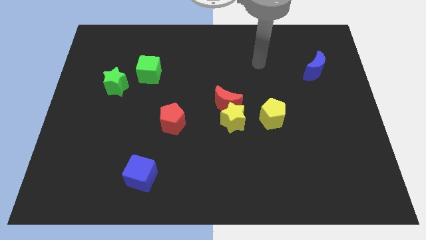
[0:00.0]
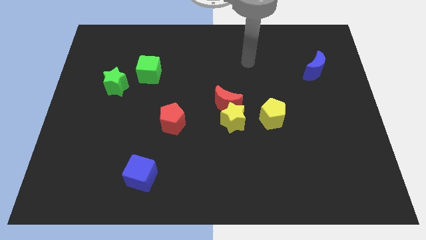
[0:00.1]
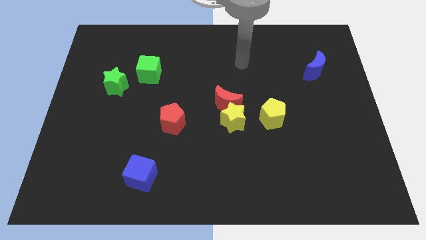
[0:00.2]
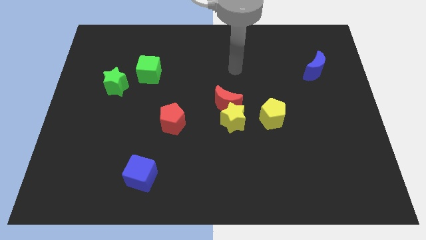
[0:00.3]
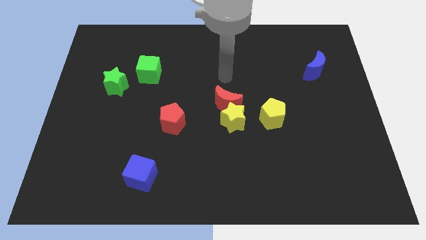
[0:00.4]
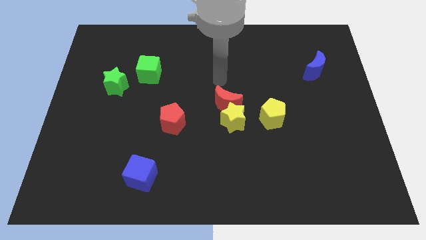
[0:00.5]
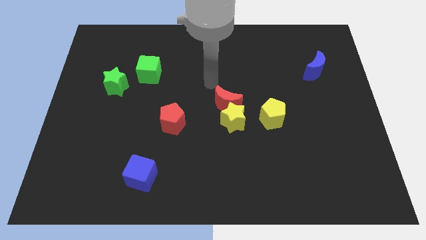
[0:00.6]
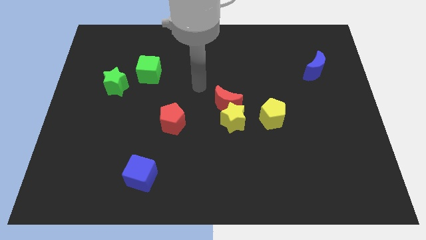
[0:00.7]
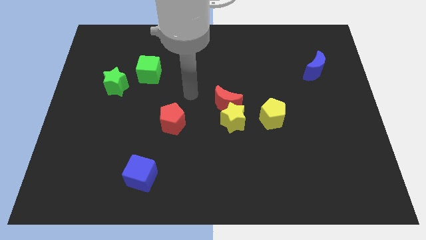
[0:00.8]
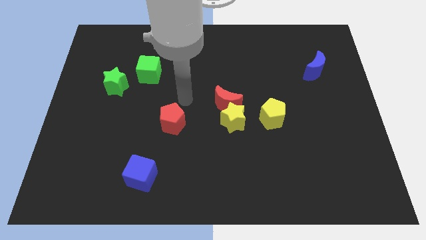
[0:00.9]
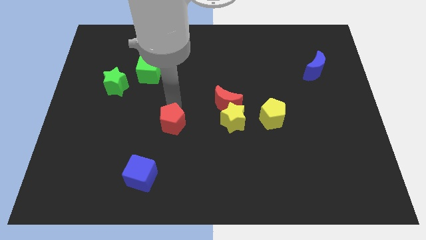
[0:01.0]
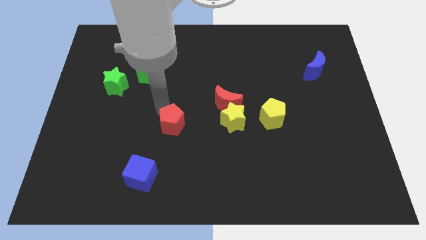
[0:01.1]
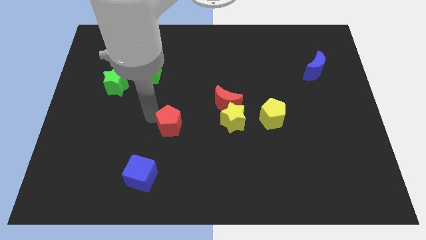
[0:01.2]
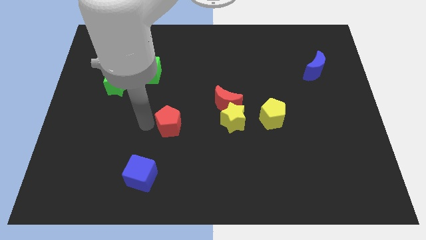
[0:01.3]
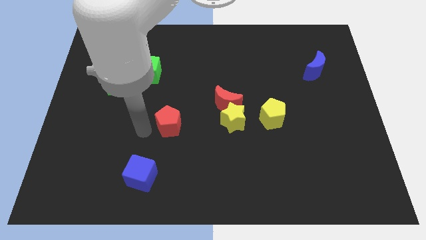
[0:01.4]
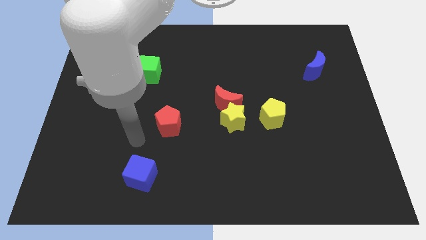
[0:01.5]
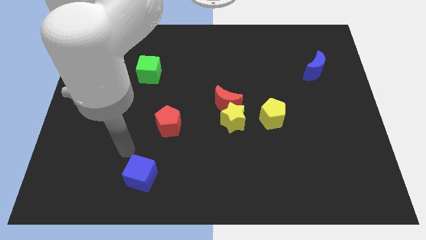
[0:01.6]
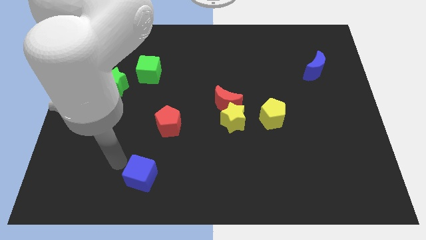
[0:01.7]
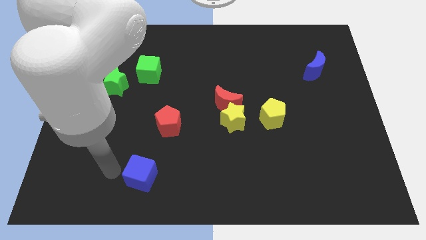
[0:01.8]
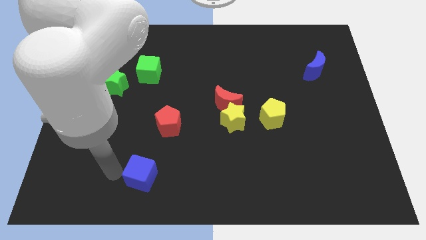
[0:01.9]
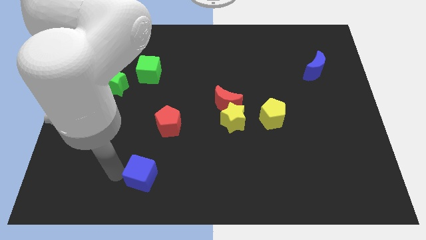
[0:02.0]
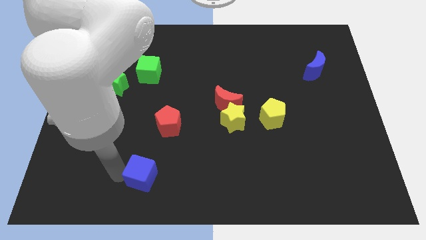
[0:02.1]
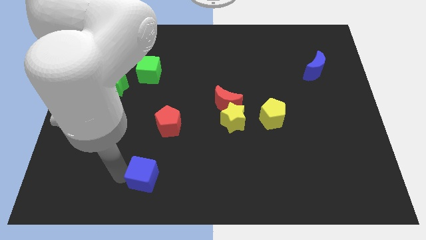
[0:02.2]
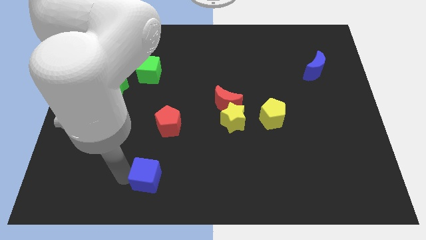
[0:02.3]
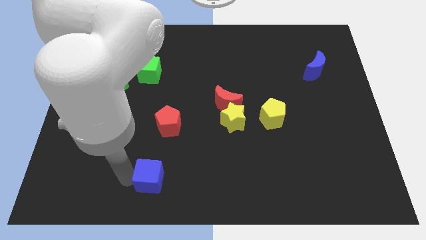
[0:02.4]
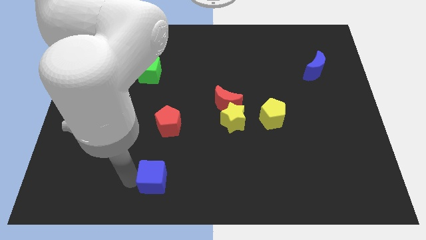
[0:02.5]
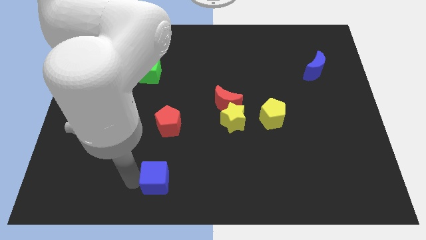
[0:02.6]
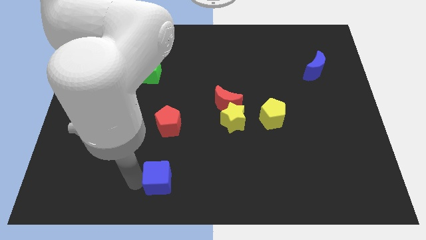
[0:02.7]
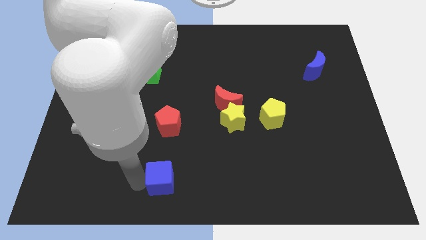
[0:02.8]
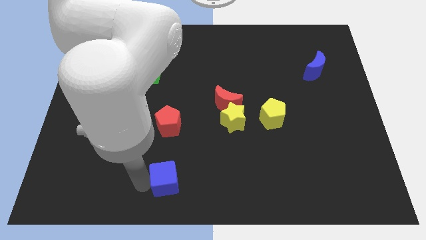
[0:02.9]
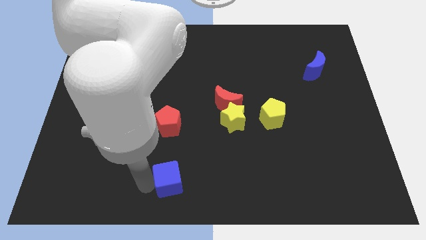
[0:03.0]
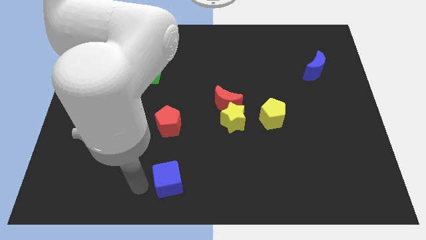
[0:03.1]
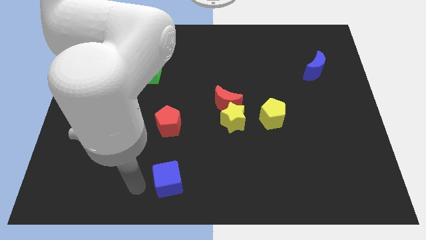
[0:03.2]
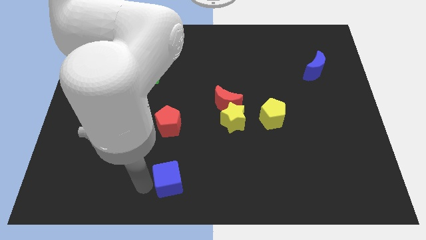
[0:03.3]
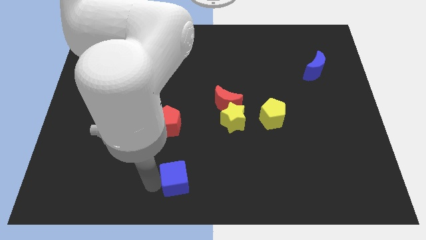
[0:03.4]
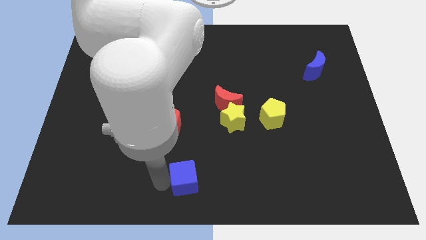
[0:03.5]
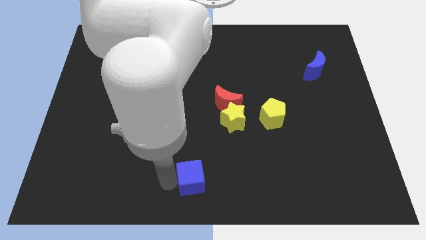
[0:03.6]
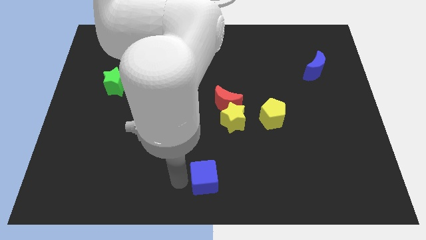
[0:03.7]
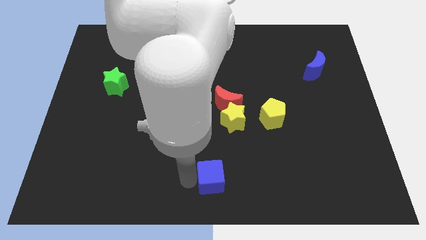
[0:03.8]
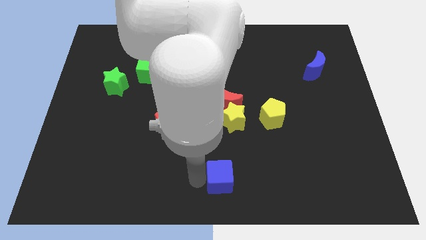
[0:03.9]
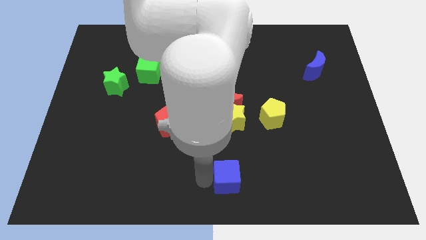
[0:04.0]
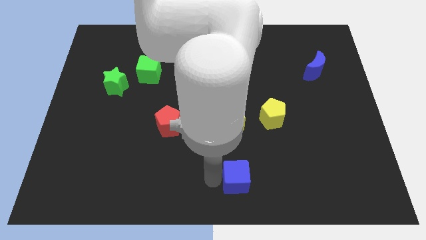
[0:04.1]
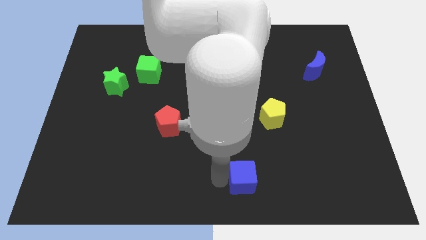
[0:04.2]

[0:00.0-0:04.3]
move the blue cube right

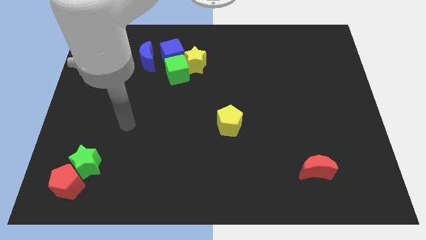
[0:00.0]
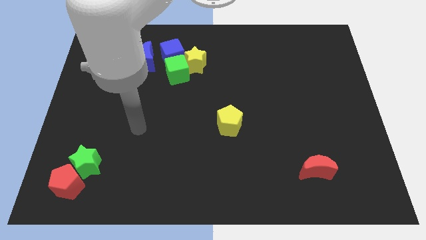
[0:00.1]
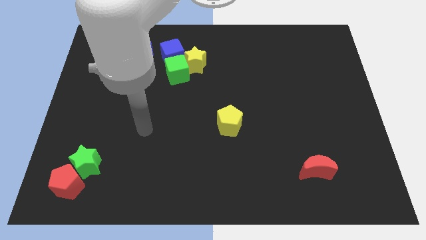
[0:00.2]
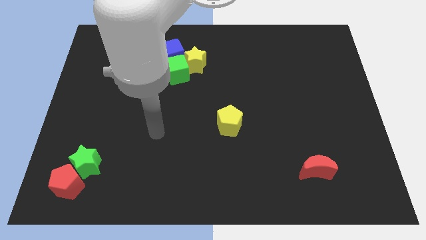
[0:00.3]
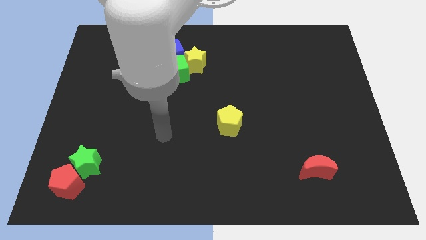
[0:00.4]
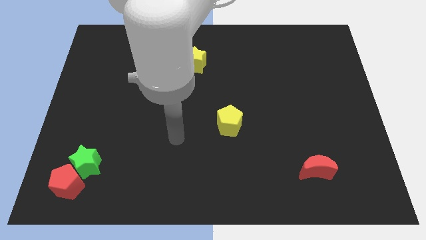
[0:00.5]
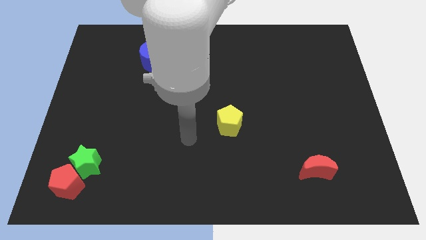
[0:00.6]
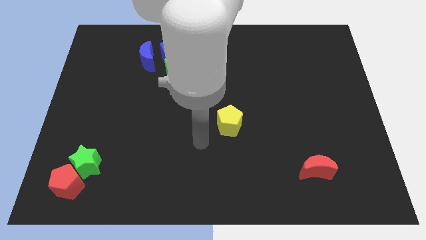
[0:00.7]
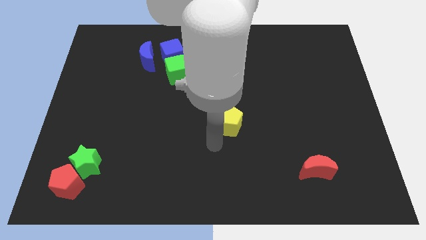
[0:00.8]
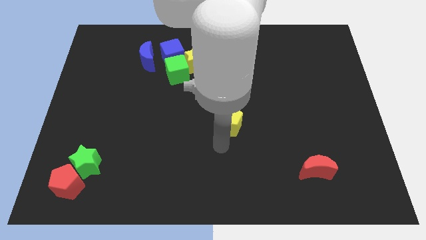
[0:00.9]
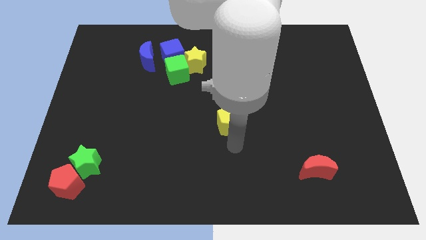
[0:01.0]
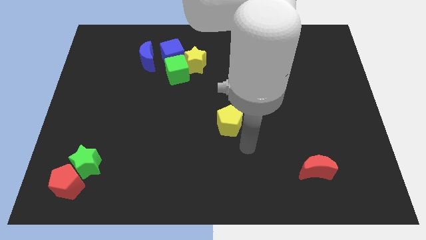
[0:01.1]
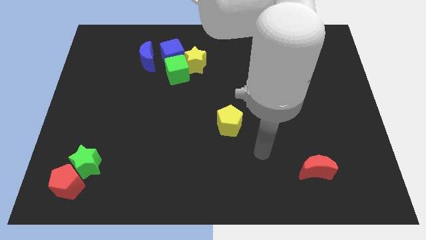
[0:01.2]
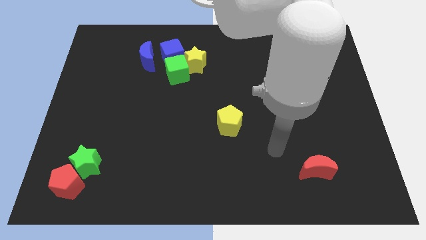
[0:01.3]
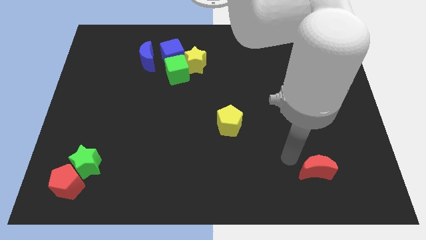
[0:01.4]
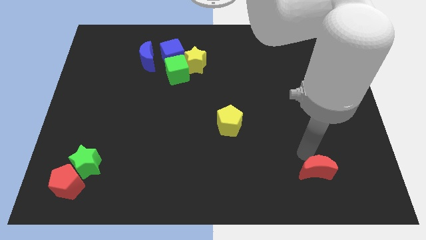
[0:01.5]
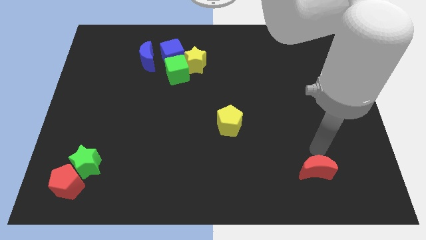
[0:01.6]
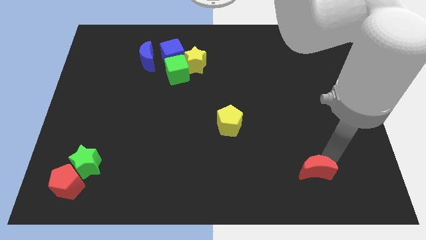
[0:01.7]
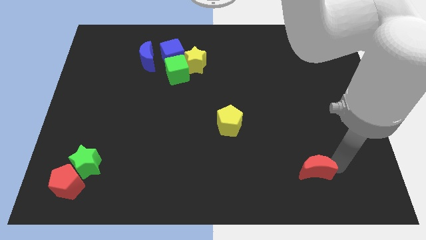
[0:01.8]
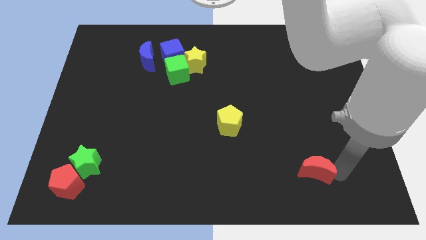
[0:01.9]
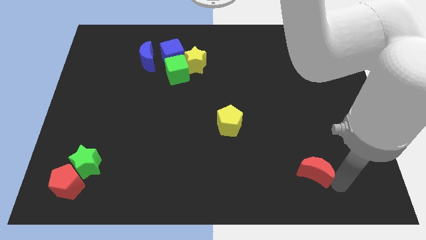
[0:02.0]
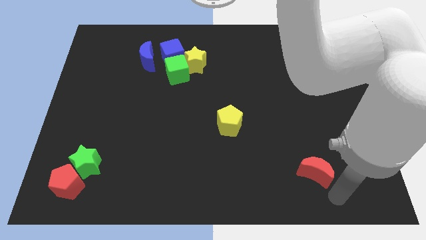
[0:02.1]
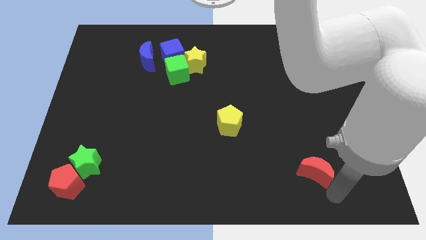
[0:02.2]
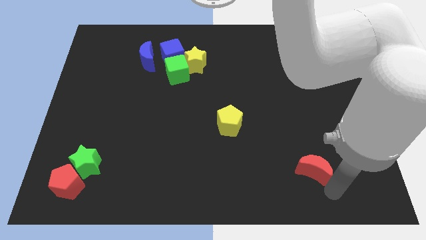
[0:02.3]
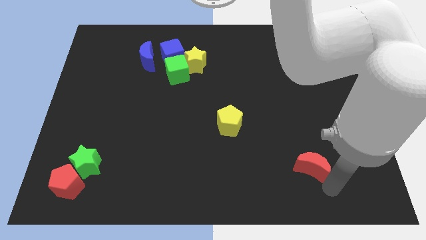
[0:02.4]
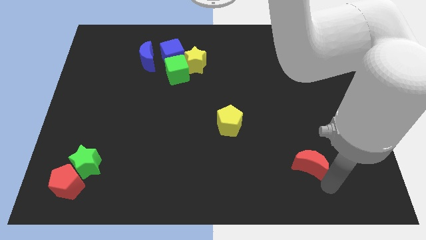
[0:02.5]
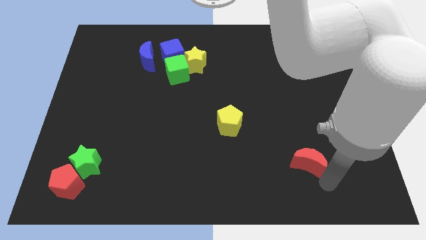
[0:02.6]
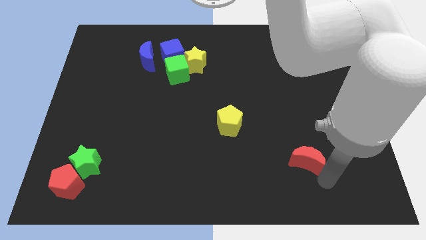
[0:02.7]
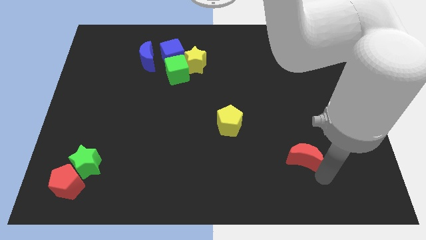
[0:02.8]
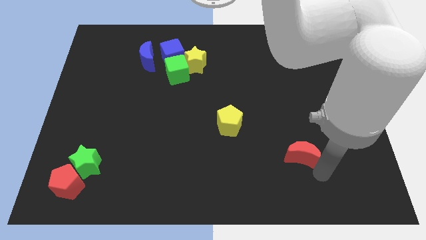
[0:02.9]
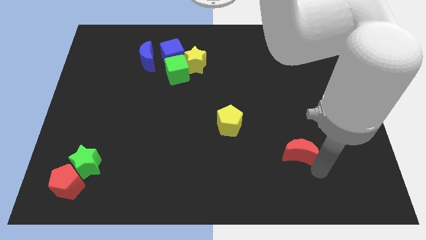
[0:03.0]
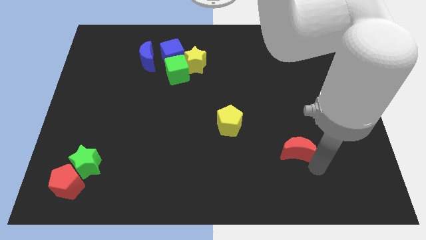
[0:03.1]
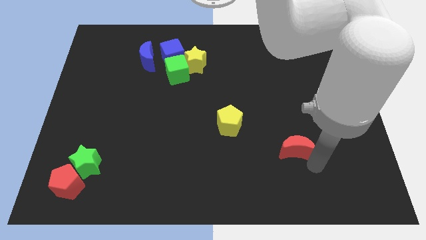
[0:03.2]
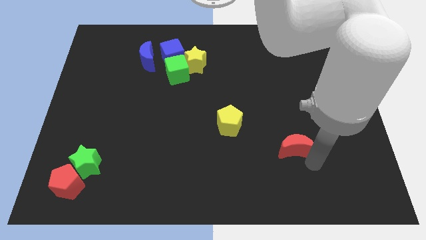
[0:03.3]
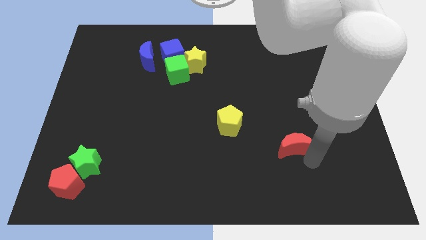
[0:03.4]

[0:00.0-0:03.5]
move the red moon upwards and then to the left a little

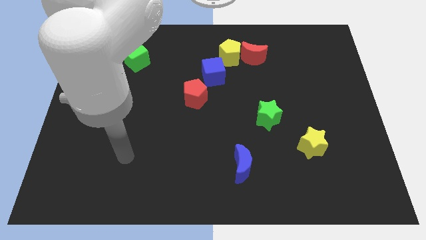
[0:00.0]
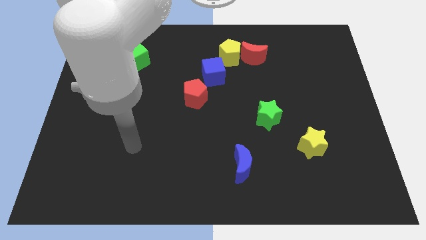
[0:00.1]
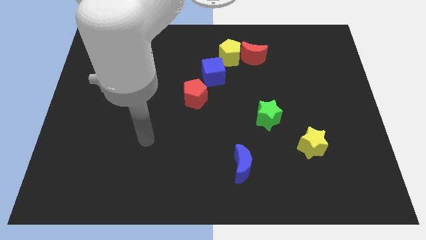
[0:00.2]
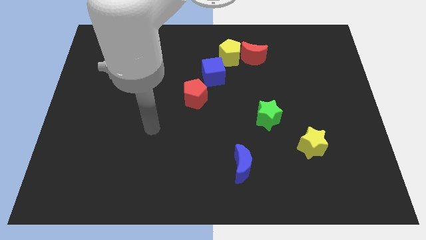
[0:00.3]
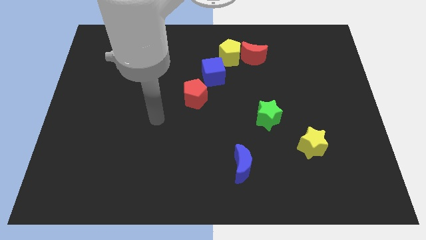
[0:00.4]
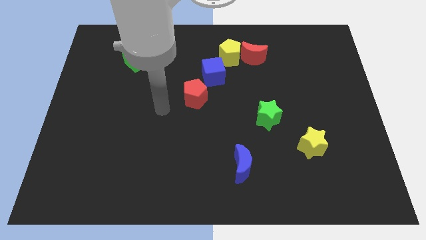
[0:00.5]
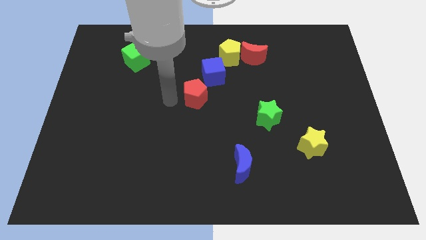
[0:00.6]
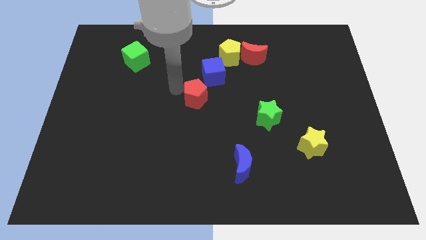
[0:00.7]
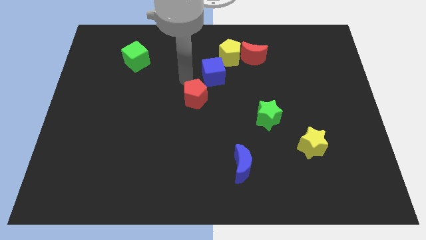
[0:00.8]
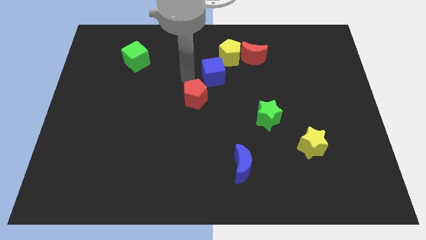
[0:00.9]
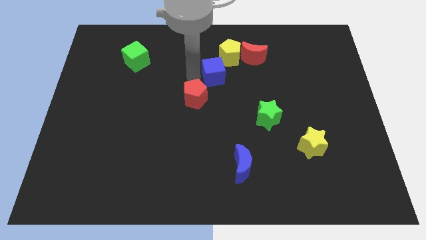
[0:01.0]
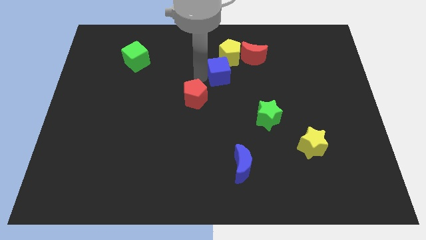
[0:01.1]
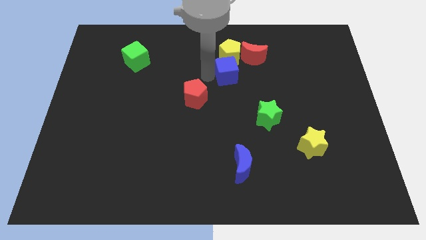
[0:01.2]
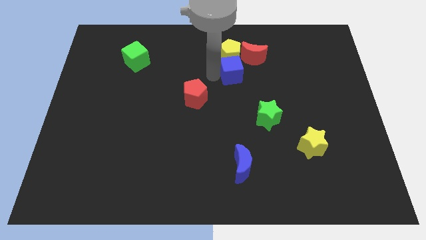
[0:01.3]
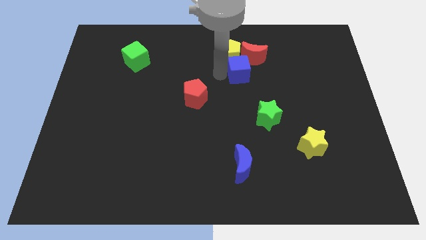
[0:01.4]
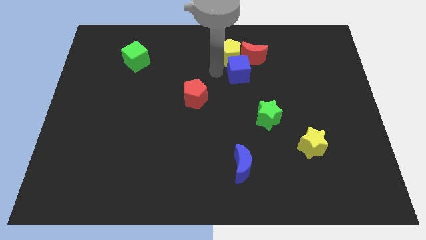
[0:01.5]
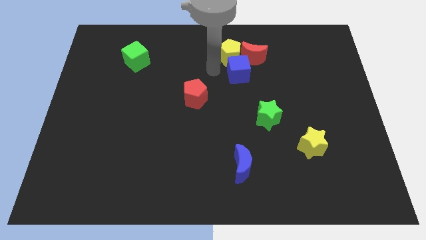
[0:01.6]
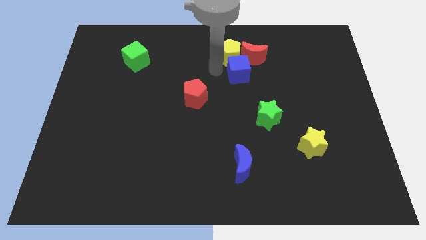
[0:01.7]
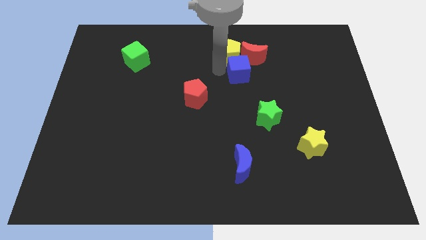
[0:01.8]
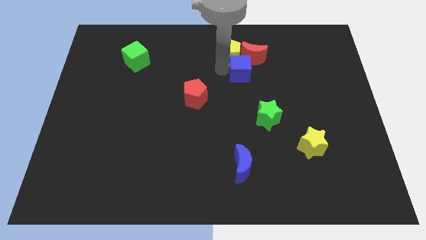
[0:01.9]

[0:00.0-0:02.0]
slightly slide the blue cube to the right
